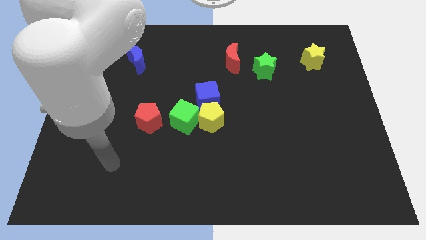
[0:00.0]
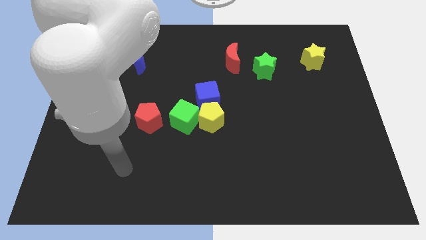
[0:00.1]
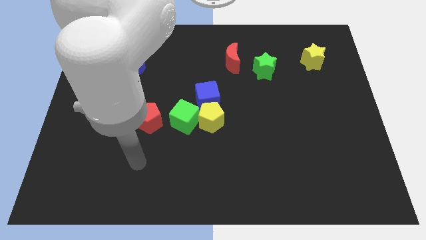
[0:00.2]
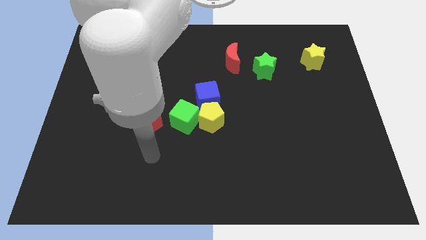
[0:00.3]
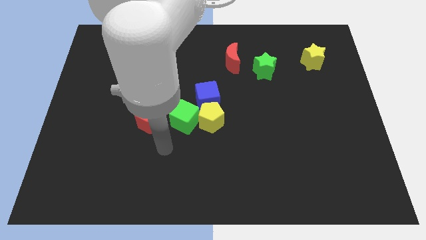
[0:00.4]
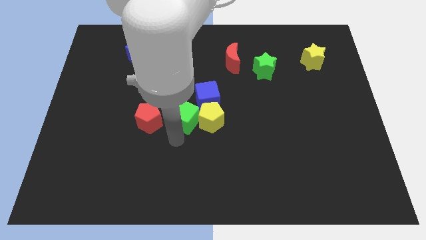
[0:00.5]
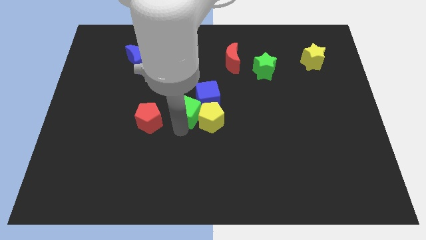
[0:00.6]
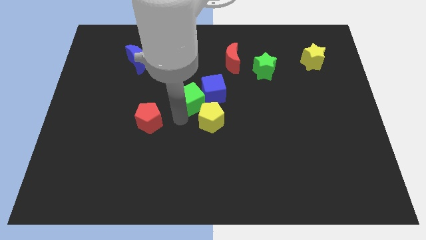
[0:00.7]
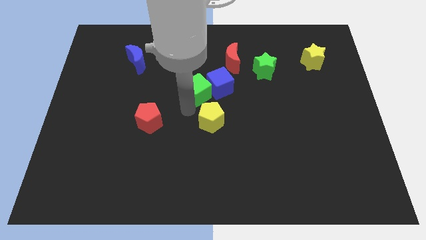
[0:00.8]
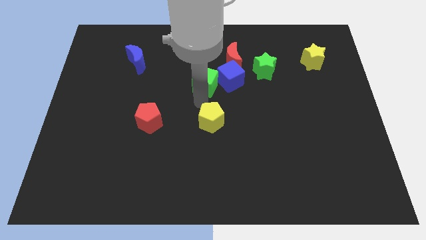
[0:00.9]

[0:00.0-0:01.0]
pull the yellow pentagon apart from the green cube and blue cube

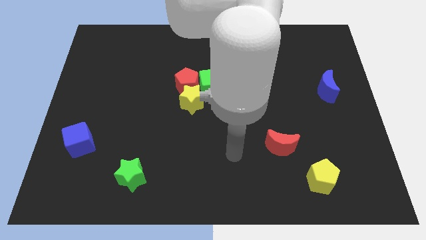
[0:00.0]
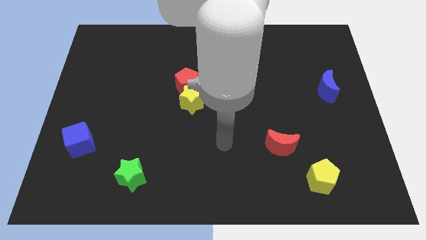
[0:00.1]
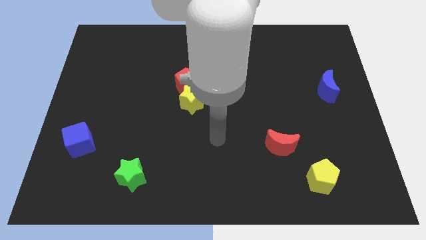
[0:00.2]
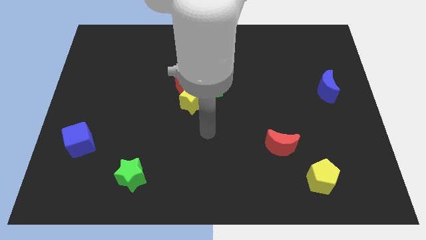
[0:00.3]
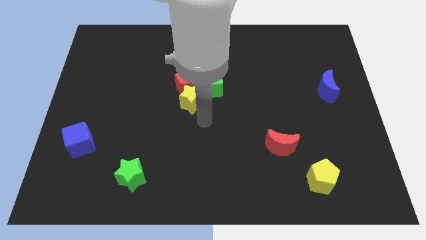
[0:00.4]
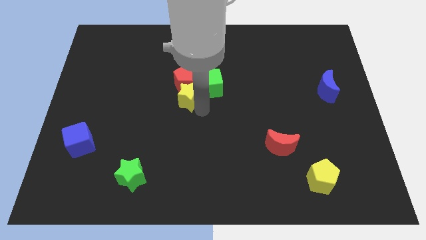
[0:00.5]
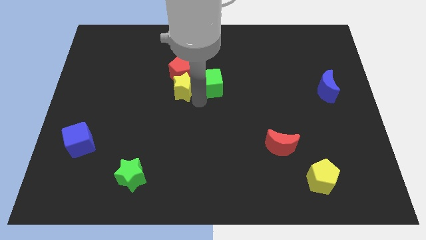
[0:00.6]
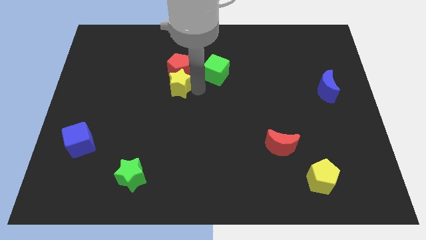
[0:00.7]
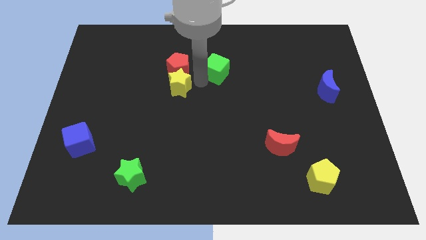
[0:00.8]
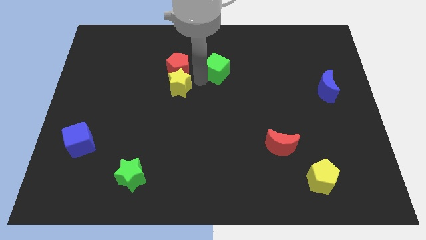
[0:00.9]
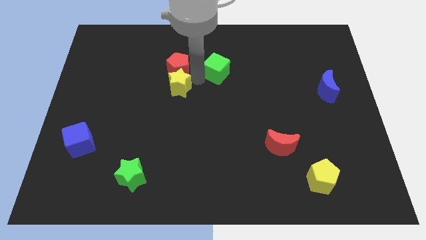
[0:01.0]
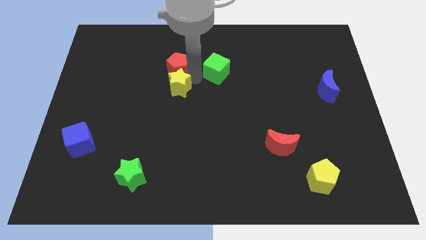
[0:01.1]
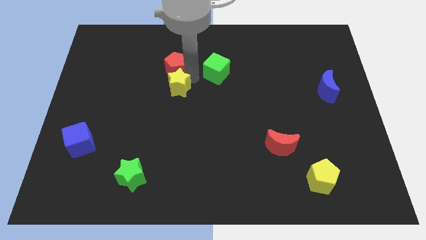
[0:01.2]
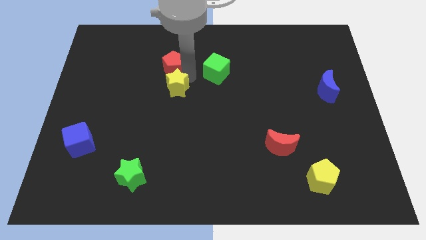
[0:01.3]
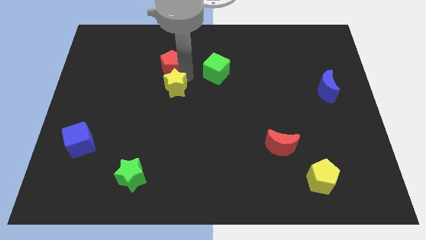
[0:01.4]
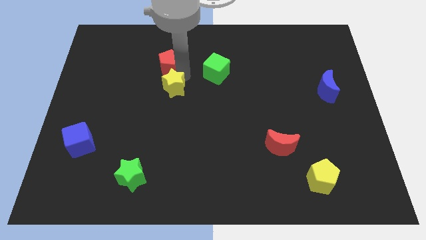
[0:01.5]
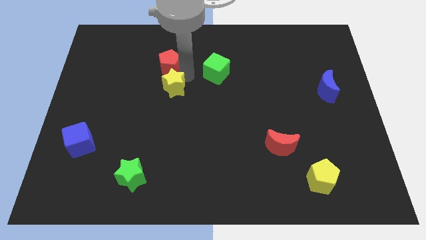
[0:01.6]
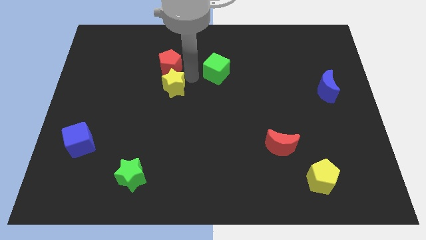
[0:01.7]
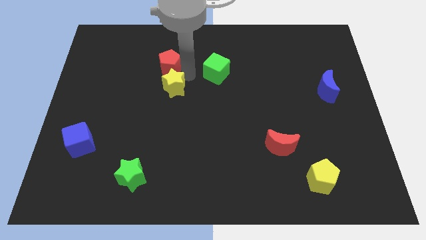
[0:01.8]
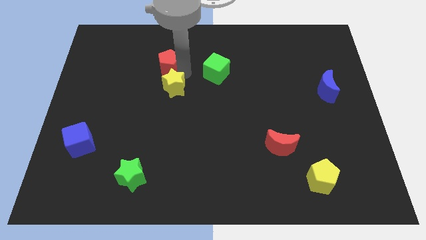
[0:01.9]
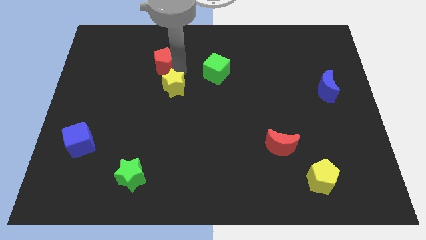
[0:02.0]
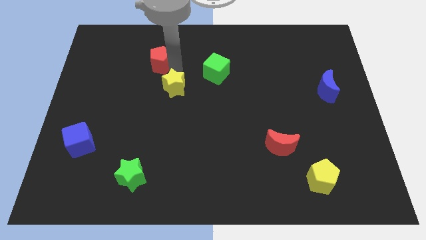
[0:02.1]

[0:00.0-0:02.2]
separate the red pentagon from the yellow star and green cube

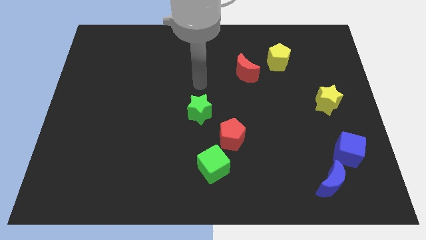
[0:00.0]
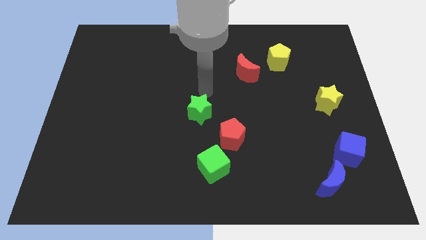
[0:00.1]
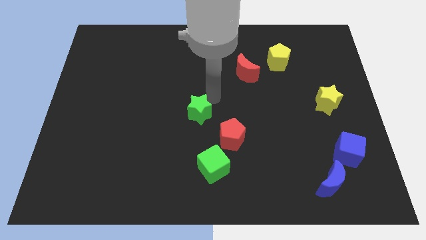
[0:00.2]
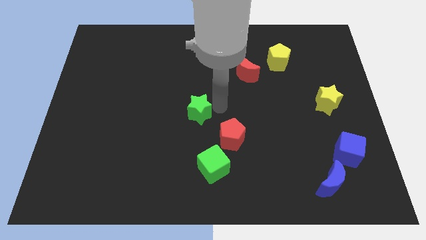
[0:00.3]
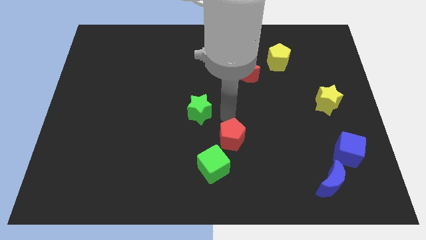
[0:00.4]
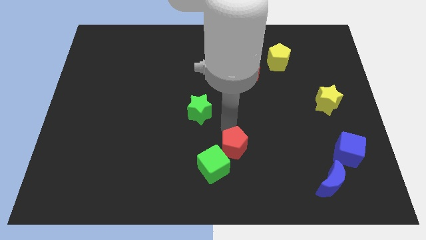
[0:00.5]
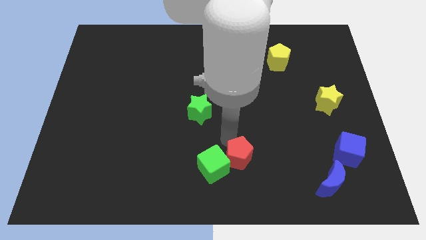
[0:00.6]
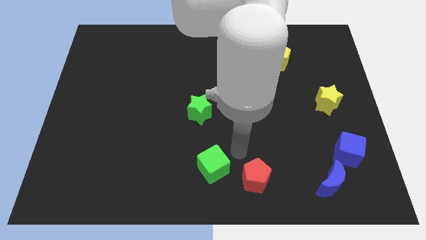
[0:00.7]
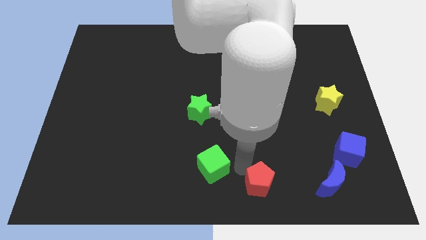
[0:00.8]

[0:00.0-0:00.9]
move the green cube away from the red pentagon

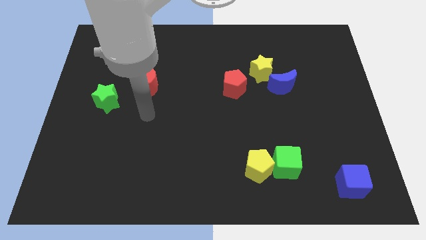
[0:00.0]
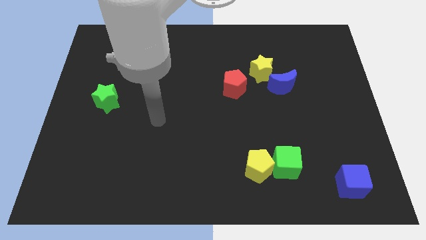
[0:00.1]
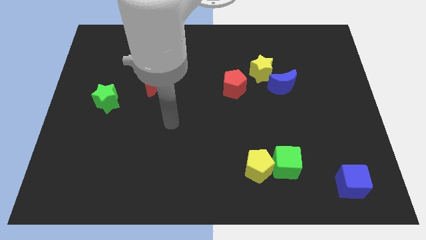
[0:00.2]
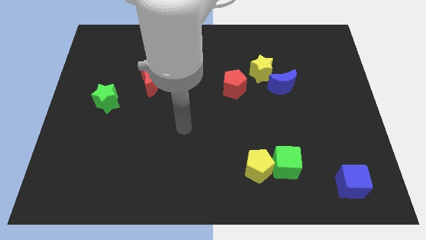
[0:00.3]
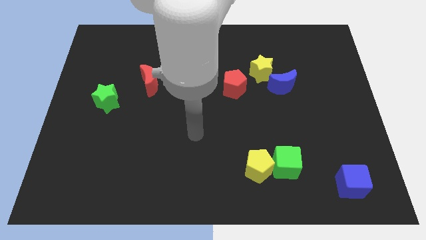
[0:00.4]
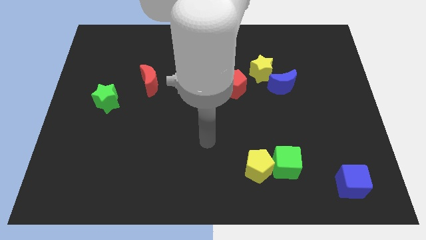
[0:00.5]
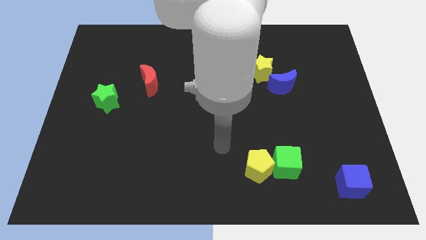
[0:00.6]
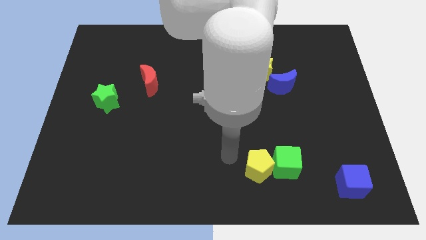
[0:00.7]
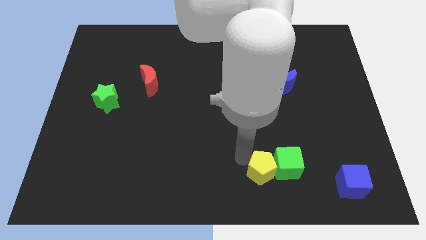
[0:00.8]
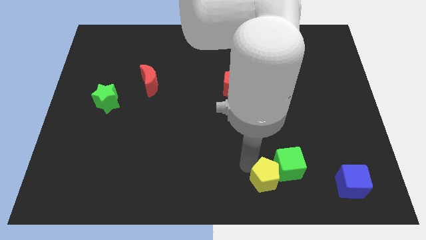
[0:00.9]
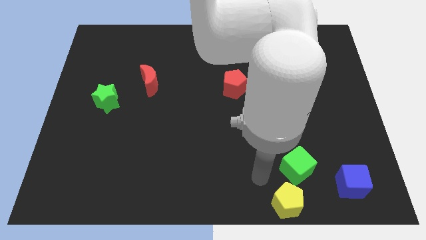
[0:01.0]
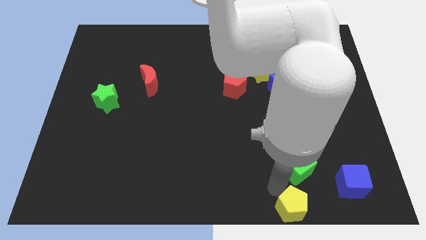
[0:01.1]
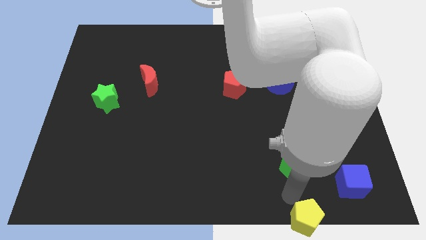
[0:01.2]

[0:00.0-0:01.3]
separate the green cube from the yellow pentagon

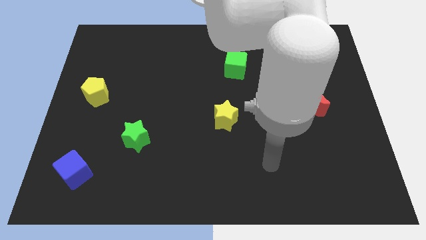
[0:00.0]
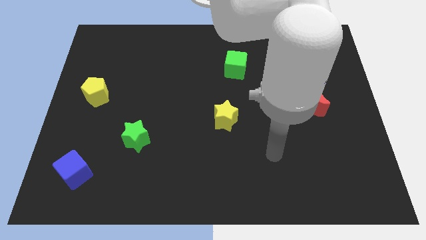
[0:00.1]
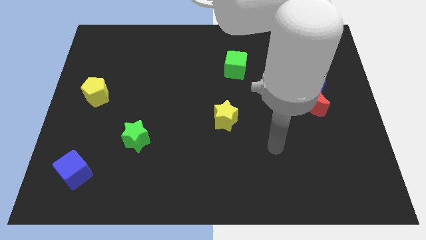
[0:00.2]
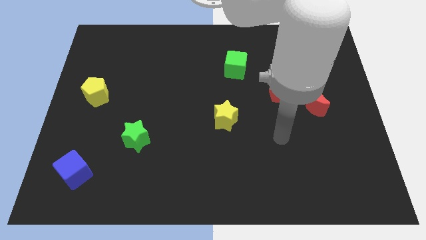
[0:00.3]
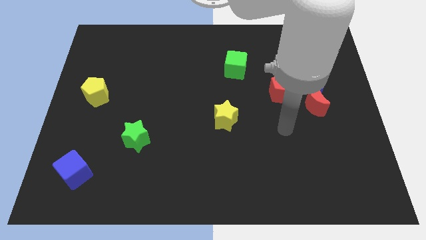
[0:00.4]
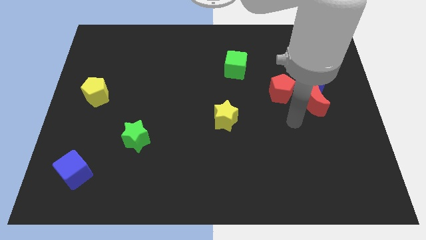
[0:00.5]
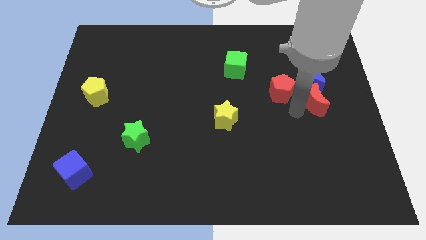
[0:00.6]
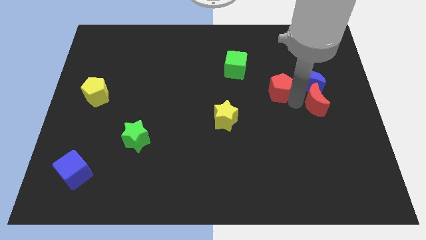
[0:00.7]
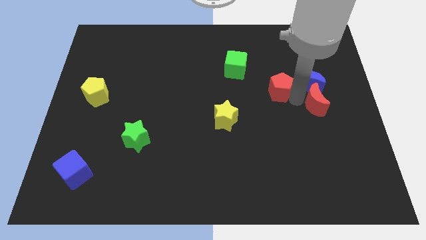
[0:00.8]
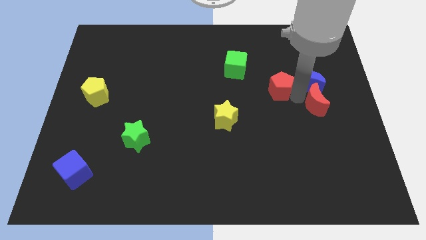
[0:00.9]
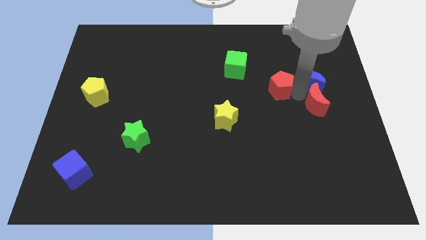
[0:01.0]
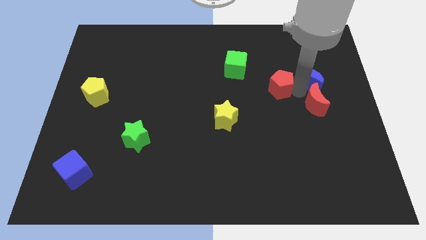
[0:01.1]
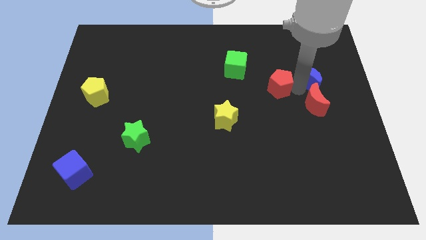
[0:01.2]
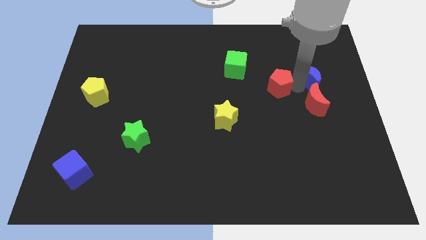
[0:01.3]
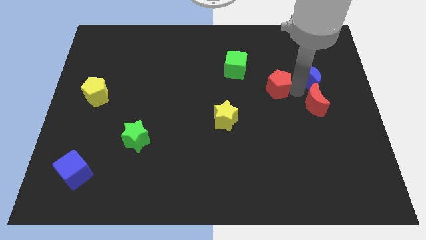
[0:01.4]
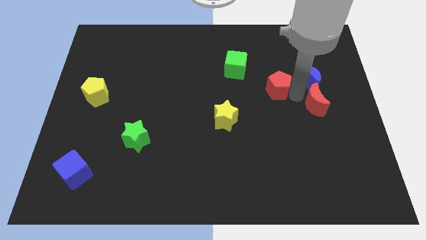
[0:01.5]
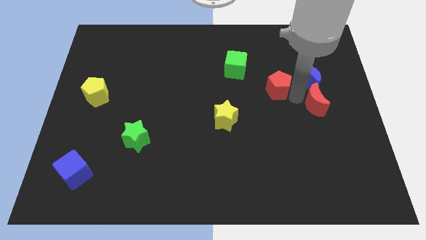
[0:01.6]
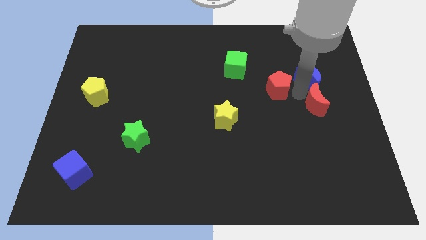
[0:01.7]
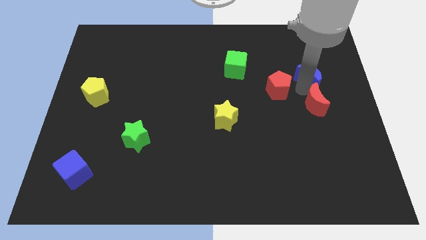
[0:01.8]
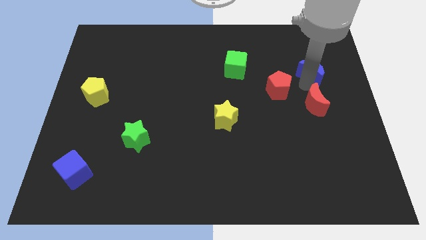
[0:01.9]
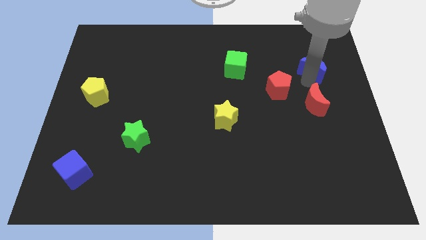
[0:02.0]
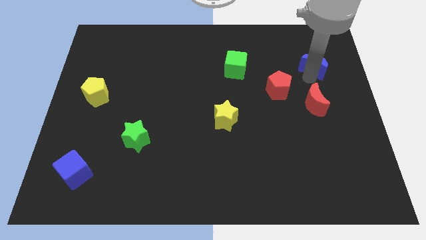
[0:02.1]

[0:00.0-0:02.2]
move the blue moon away from the red moon and red pentagon

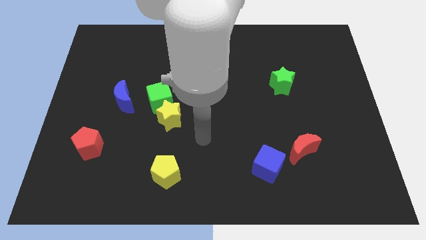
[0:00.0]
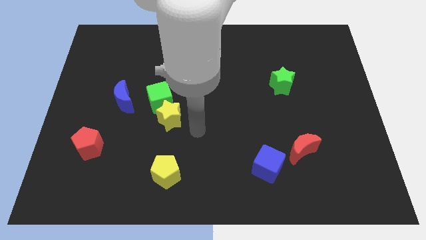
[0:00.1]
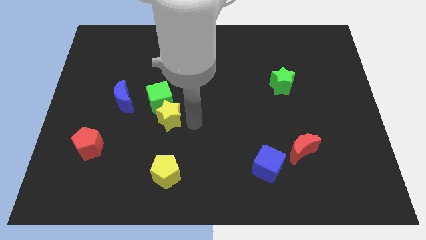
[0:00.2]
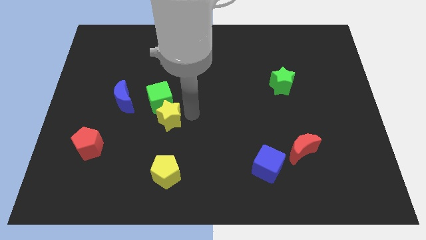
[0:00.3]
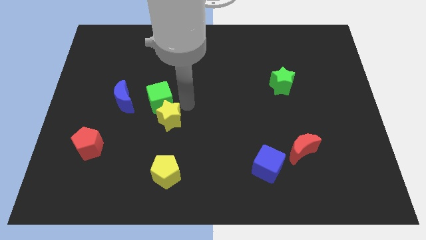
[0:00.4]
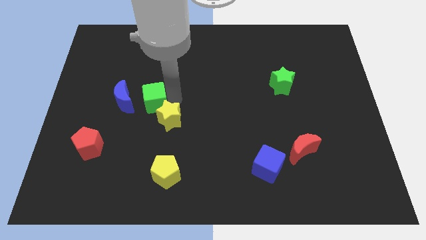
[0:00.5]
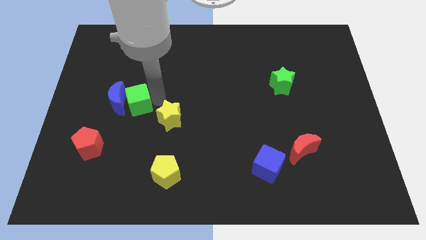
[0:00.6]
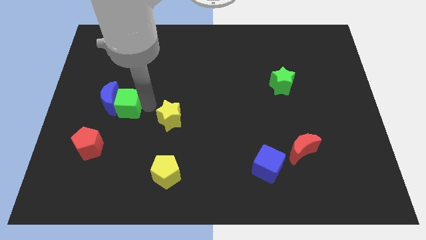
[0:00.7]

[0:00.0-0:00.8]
separate the yellow star from the green cube

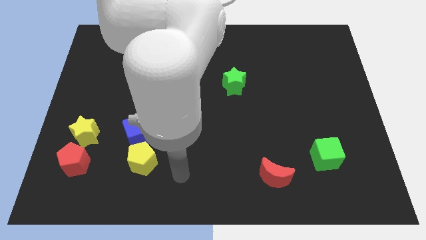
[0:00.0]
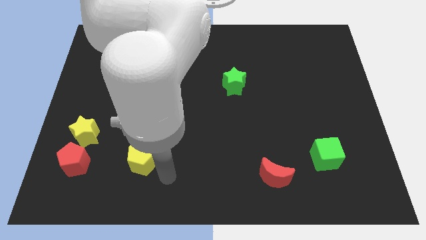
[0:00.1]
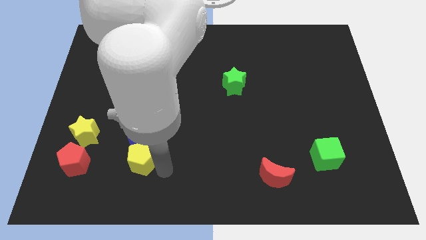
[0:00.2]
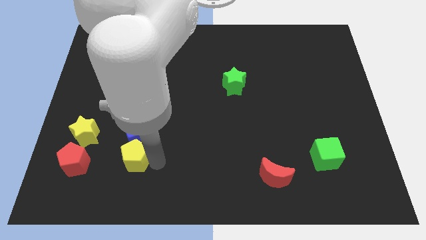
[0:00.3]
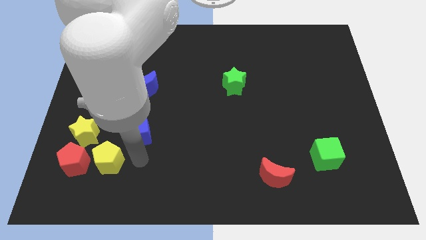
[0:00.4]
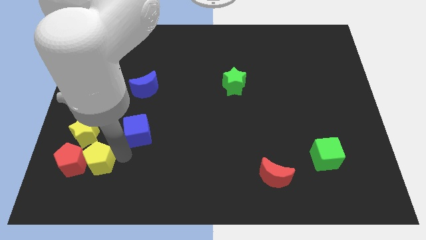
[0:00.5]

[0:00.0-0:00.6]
separate the blue cube from the yellow pentagon

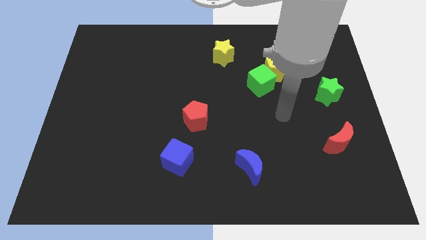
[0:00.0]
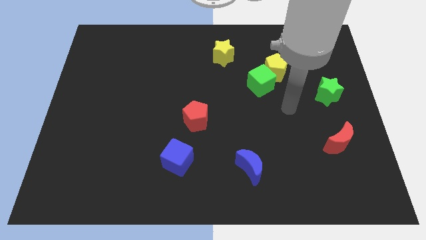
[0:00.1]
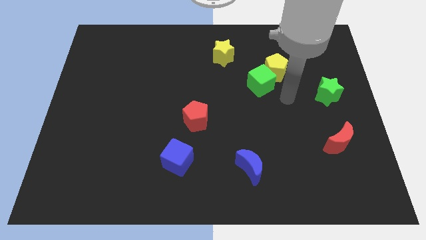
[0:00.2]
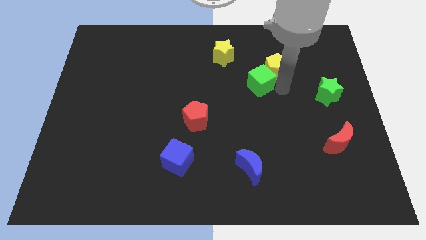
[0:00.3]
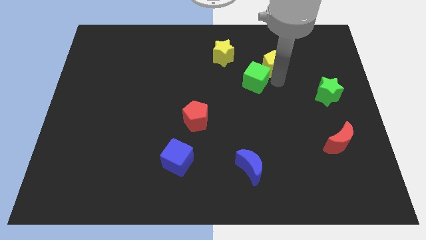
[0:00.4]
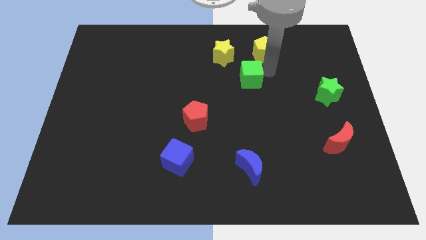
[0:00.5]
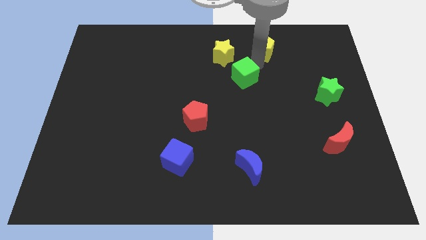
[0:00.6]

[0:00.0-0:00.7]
move the green cube away from the yellow pentagon
